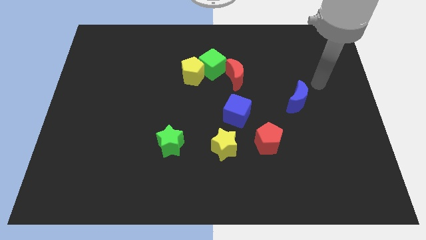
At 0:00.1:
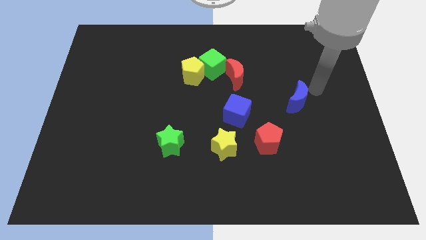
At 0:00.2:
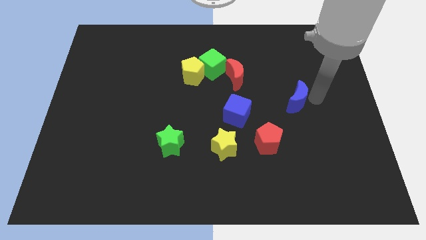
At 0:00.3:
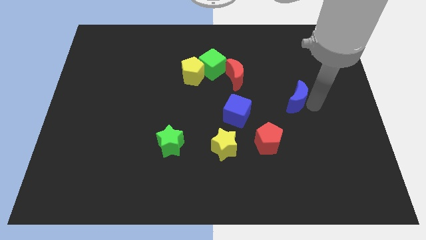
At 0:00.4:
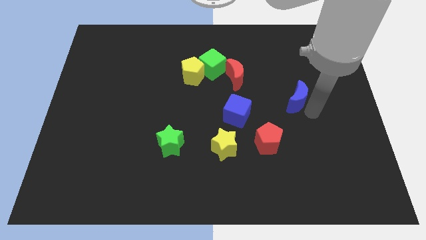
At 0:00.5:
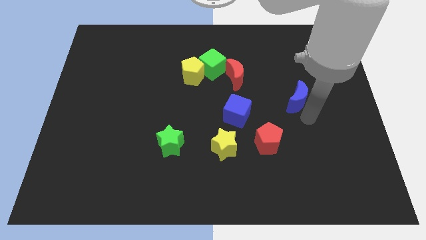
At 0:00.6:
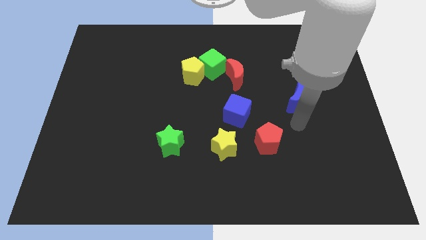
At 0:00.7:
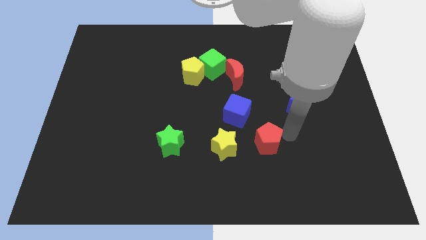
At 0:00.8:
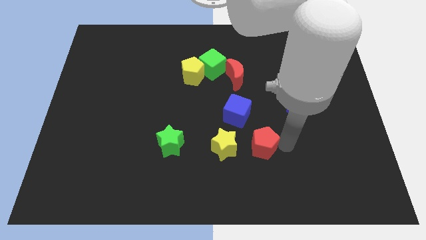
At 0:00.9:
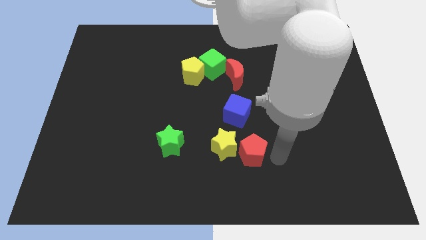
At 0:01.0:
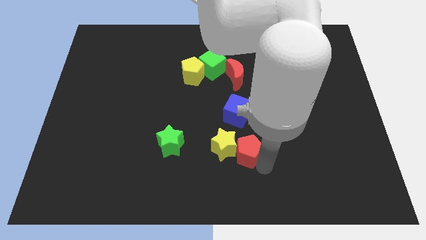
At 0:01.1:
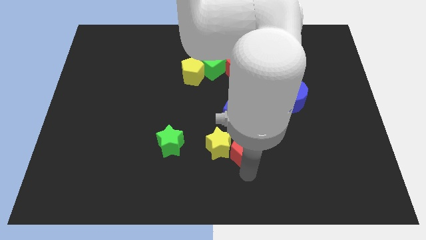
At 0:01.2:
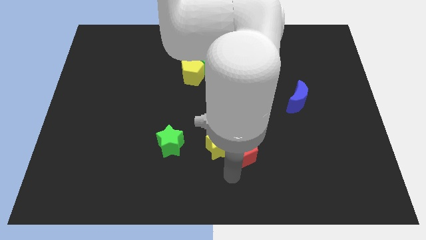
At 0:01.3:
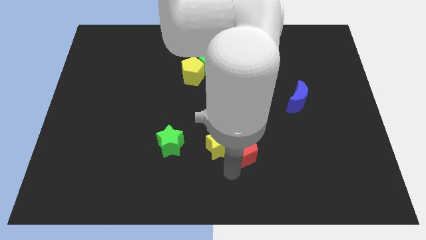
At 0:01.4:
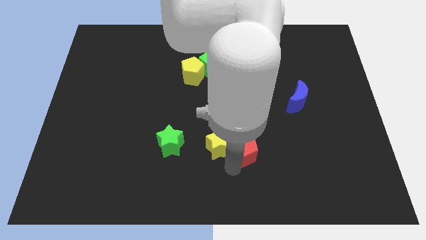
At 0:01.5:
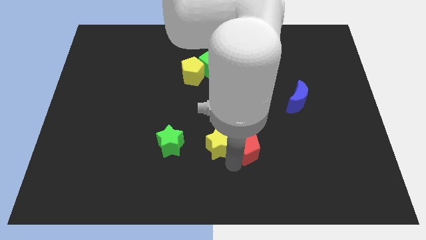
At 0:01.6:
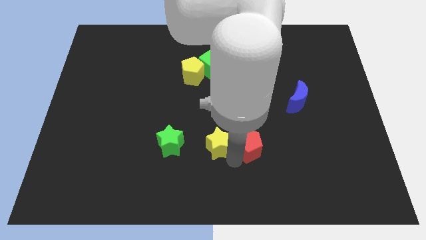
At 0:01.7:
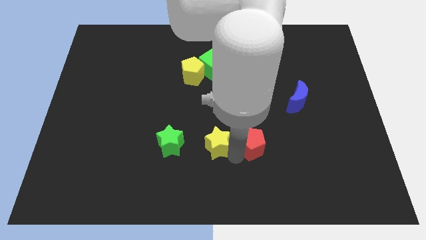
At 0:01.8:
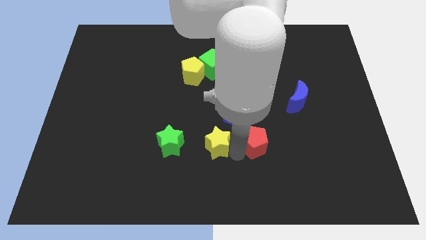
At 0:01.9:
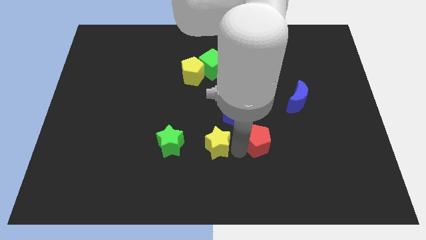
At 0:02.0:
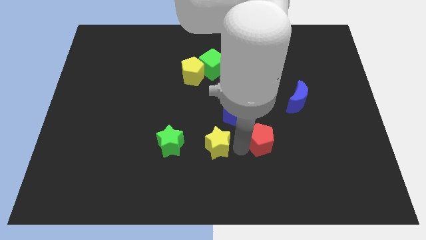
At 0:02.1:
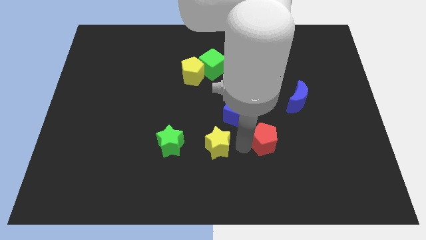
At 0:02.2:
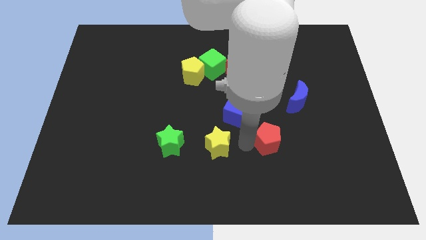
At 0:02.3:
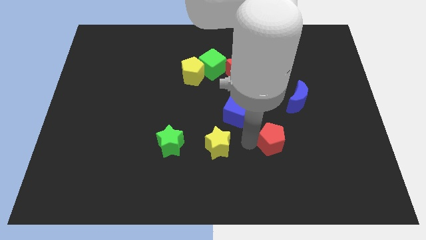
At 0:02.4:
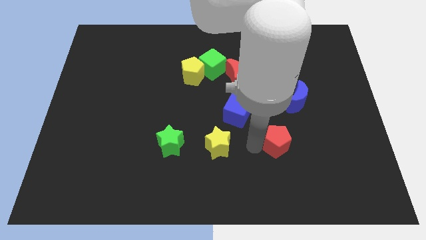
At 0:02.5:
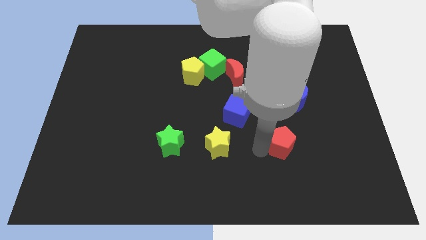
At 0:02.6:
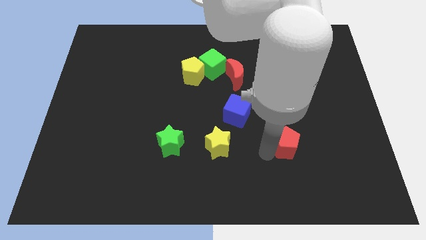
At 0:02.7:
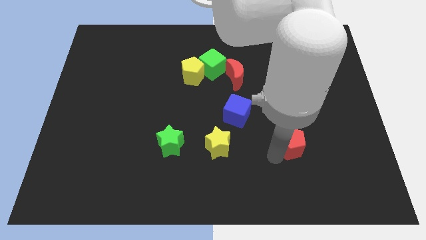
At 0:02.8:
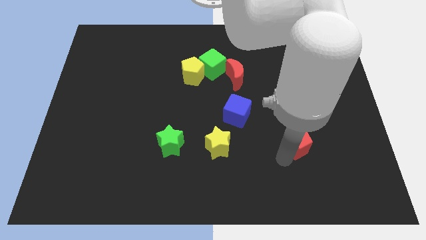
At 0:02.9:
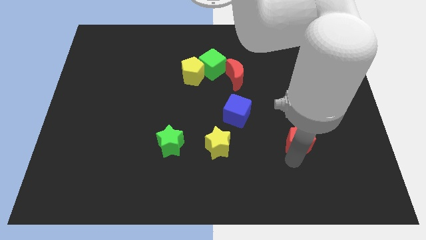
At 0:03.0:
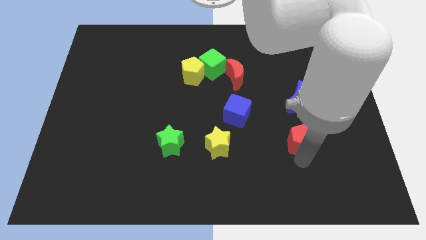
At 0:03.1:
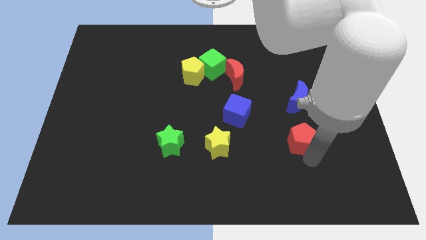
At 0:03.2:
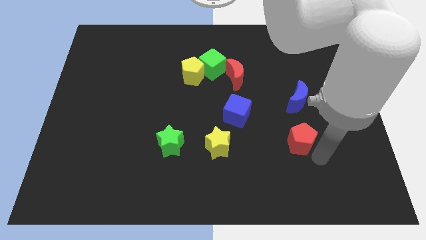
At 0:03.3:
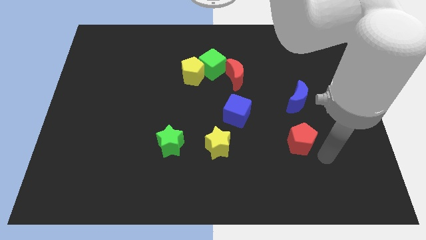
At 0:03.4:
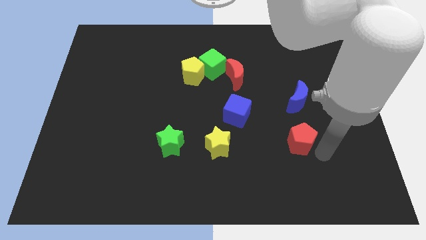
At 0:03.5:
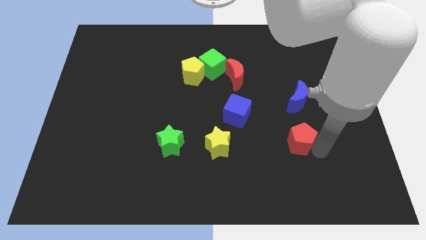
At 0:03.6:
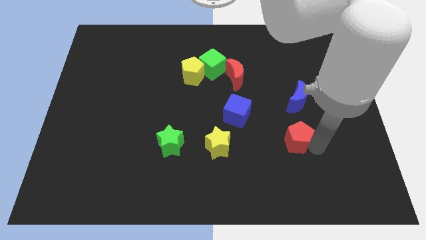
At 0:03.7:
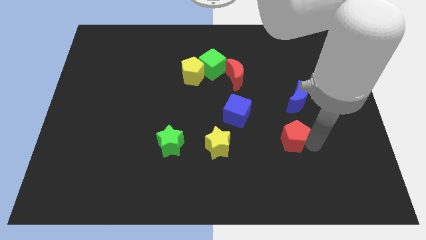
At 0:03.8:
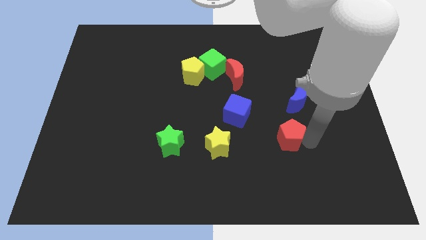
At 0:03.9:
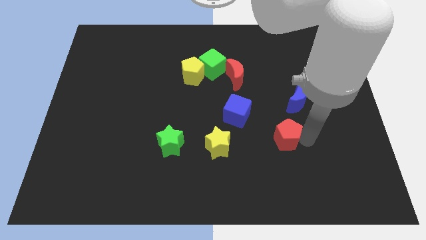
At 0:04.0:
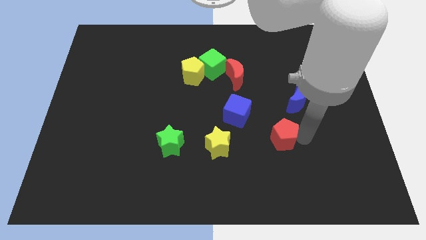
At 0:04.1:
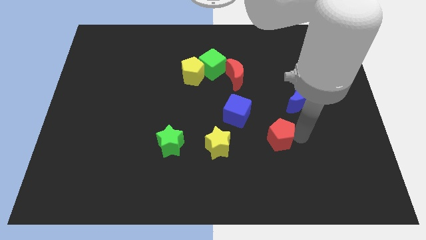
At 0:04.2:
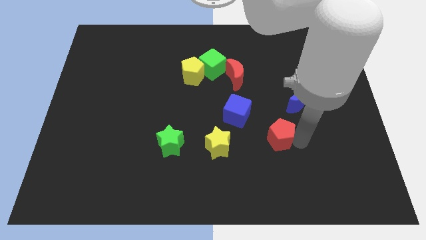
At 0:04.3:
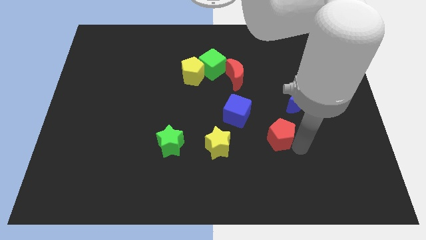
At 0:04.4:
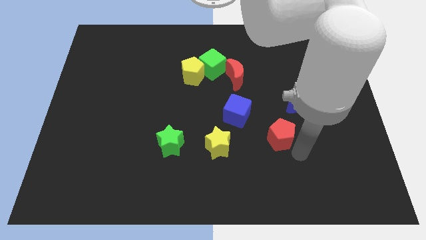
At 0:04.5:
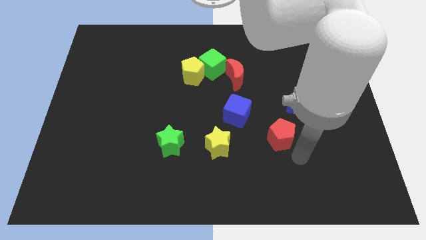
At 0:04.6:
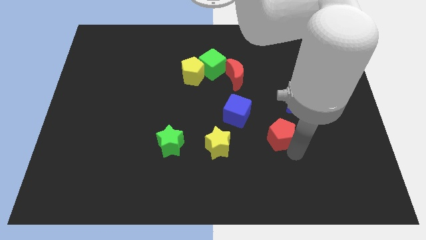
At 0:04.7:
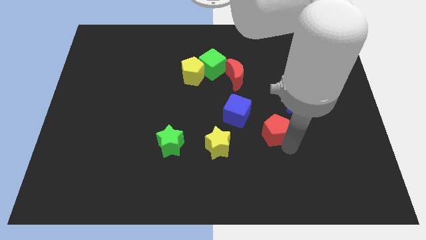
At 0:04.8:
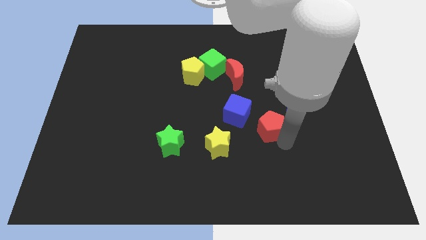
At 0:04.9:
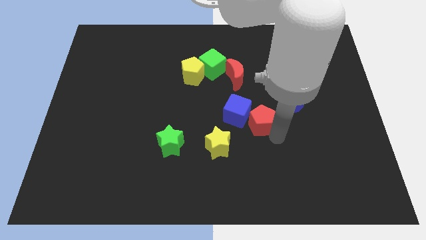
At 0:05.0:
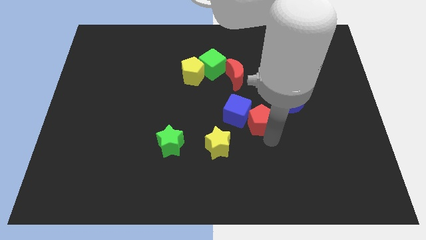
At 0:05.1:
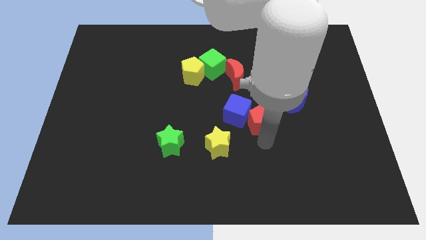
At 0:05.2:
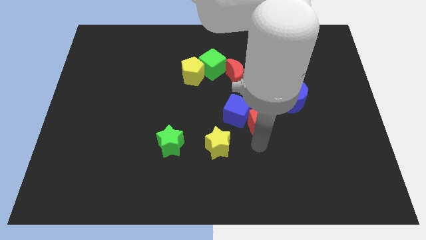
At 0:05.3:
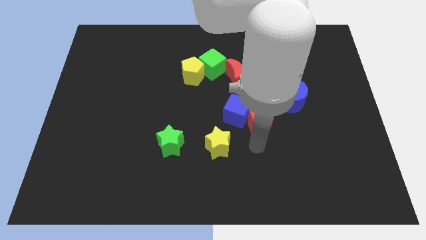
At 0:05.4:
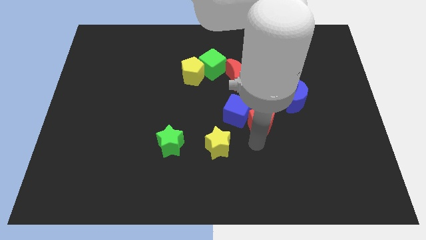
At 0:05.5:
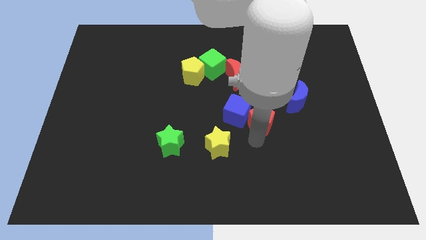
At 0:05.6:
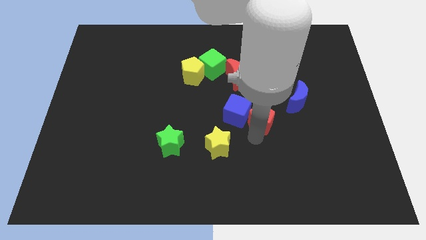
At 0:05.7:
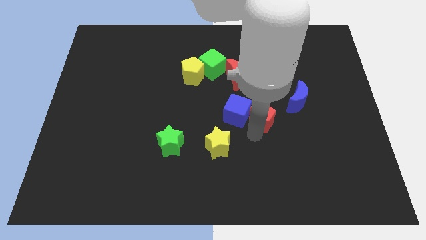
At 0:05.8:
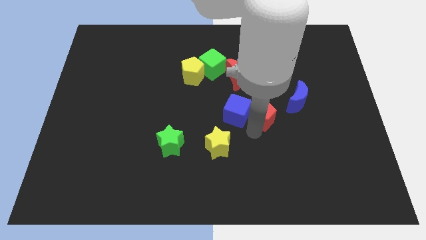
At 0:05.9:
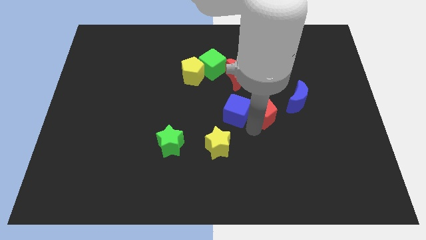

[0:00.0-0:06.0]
push the red pentagon up a little

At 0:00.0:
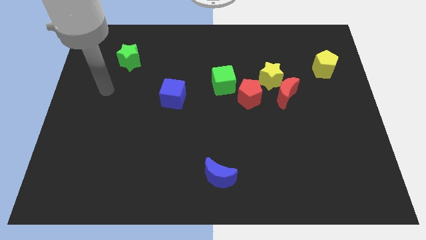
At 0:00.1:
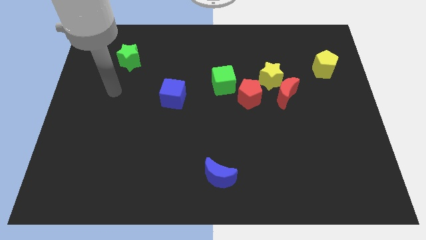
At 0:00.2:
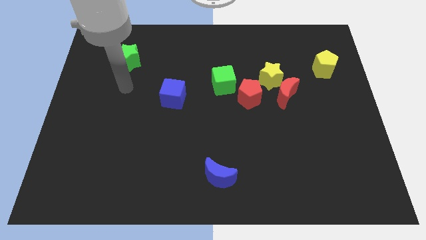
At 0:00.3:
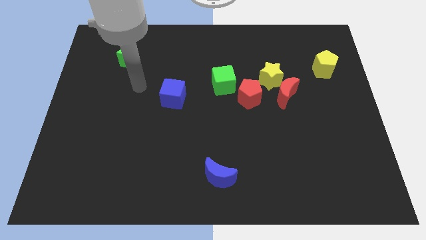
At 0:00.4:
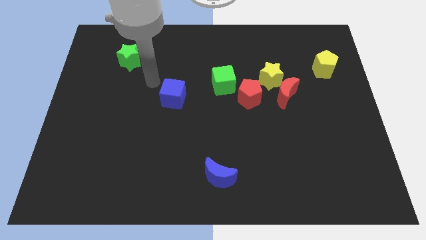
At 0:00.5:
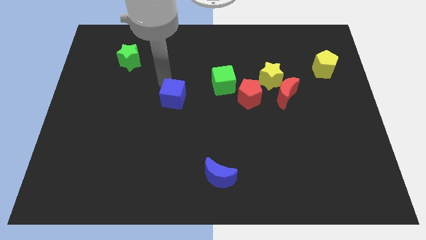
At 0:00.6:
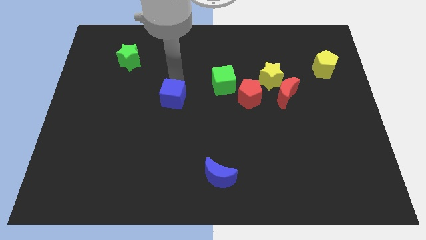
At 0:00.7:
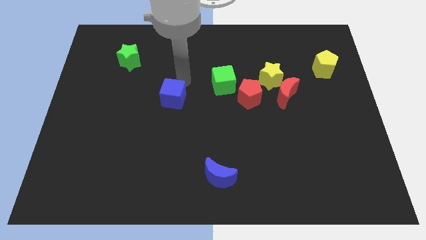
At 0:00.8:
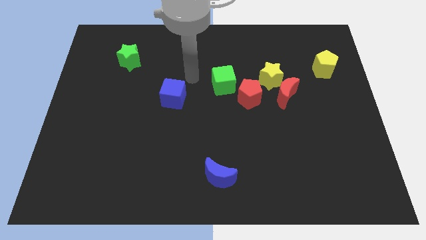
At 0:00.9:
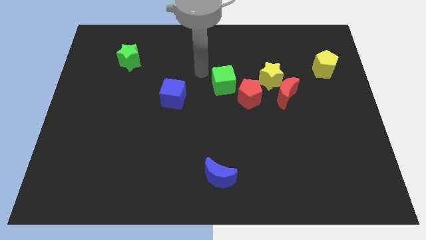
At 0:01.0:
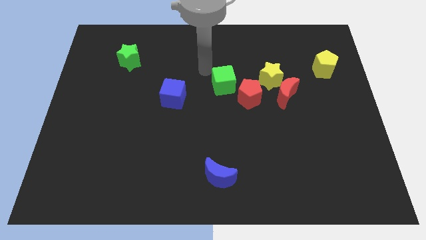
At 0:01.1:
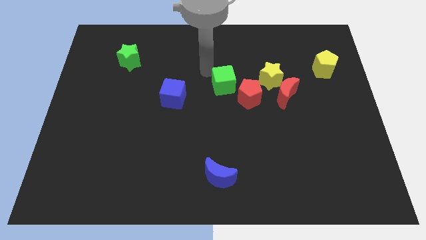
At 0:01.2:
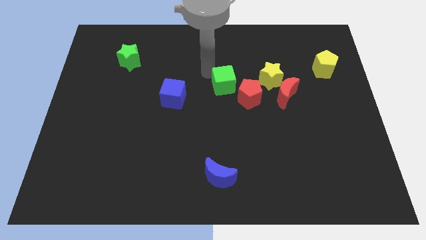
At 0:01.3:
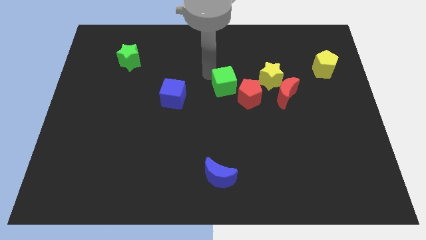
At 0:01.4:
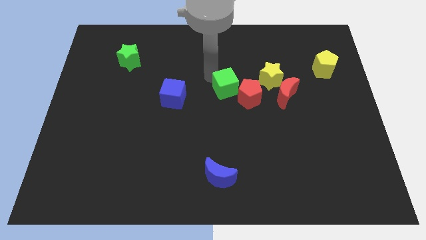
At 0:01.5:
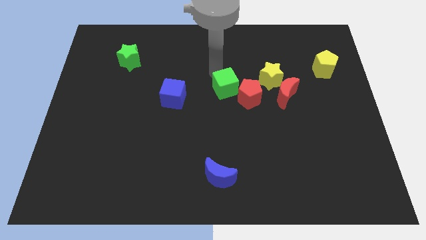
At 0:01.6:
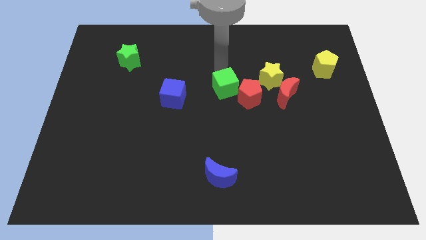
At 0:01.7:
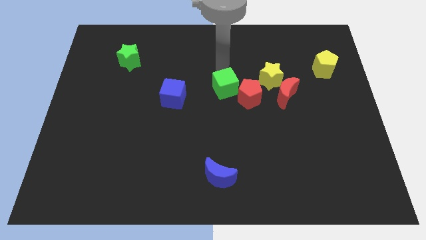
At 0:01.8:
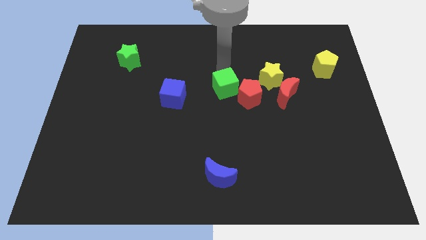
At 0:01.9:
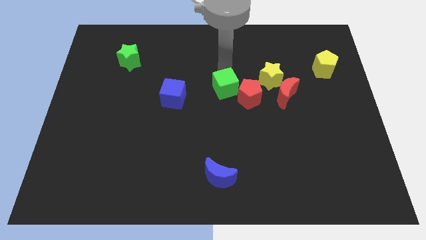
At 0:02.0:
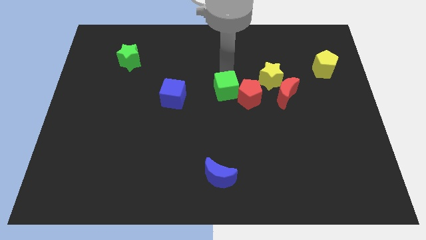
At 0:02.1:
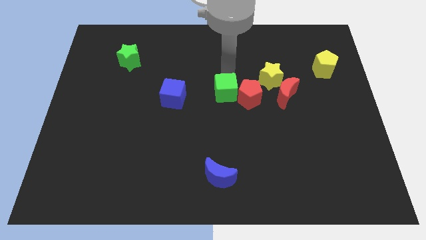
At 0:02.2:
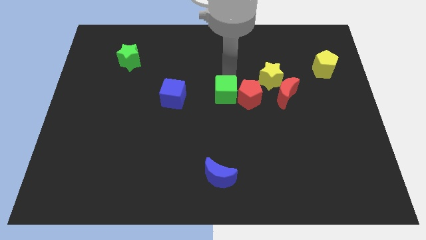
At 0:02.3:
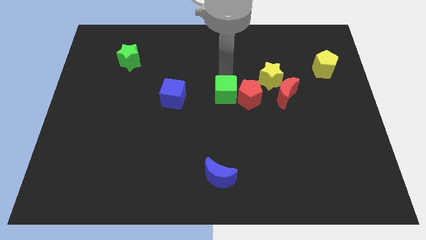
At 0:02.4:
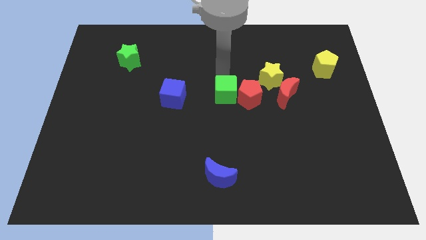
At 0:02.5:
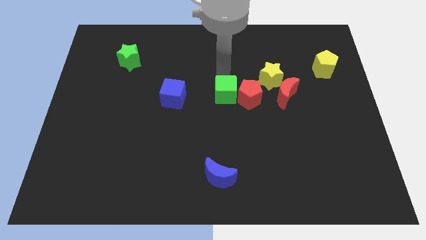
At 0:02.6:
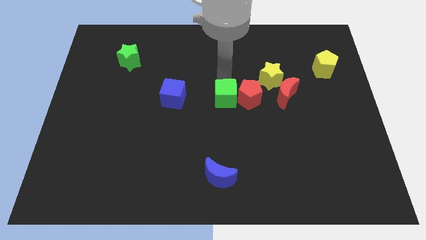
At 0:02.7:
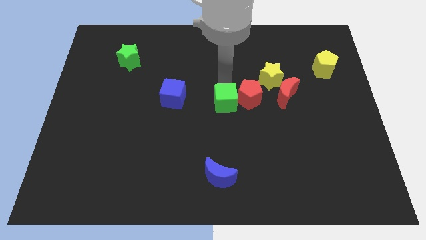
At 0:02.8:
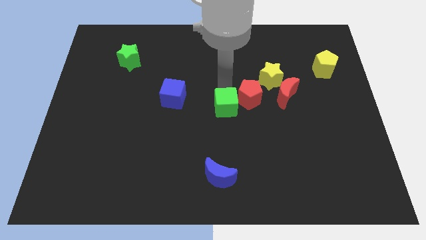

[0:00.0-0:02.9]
move the green cube downwards a little
